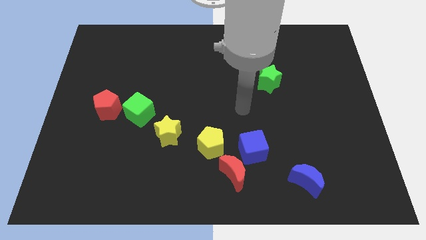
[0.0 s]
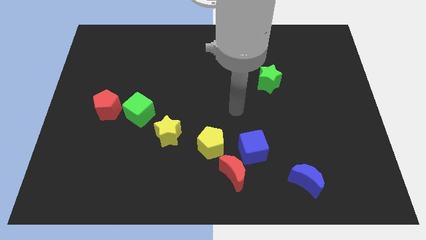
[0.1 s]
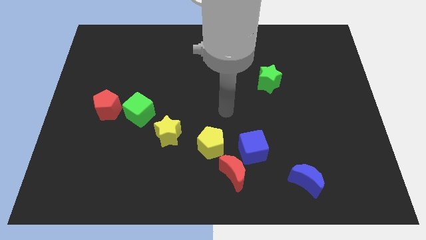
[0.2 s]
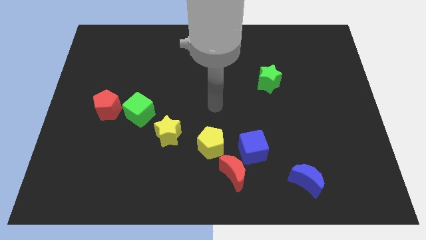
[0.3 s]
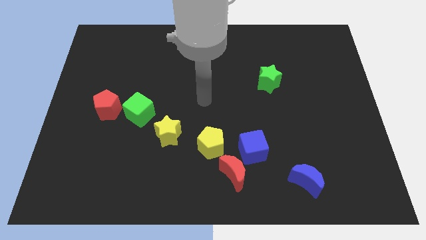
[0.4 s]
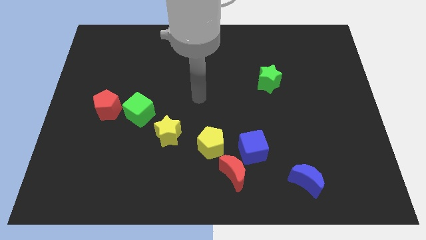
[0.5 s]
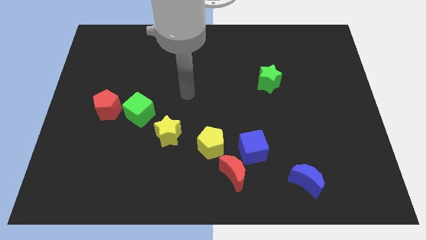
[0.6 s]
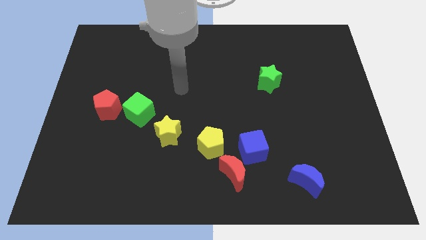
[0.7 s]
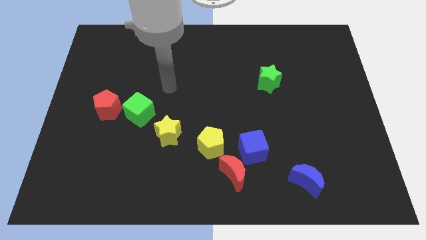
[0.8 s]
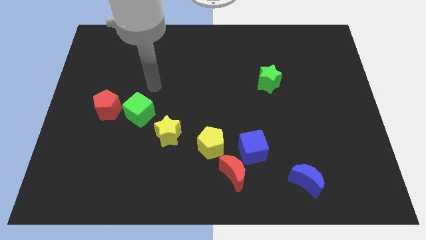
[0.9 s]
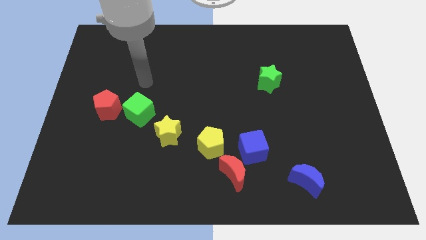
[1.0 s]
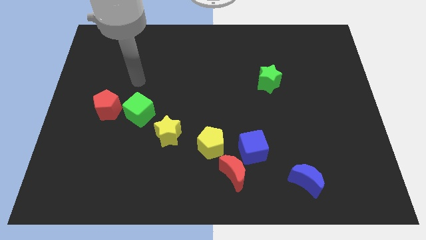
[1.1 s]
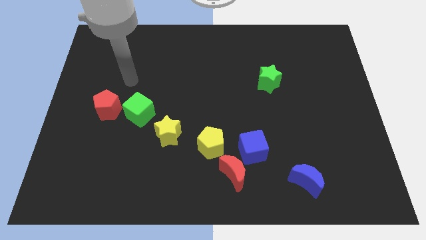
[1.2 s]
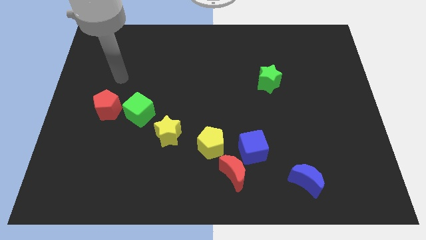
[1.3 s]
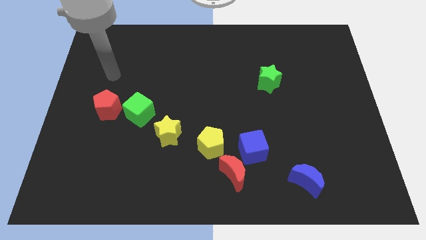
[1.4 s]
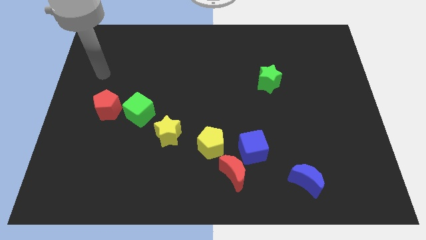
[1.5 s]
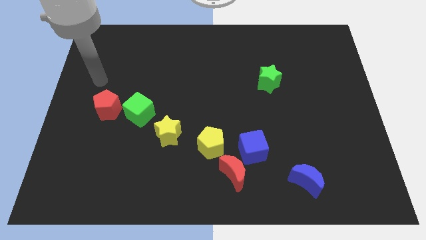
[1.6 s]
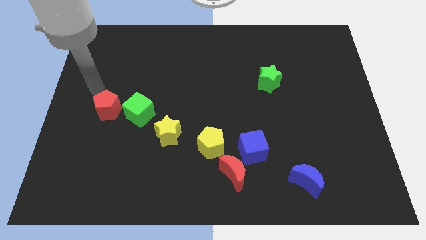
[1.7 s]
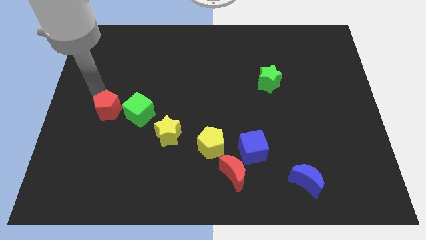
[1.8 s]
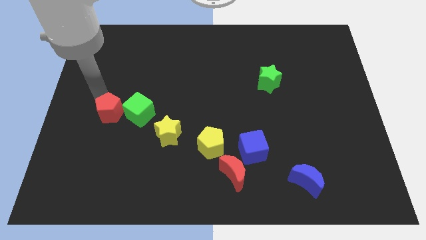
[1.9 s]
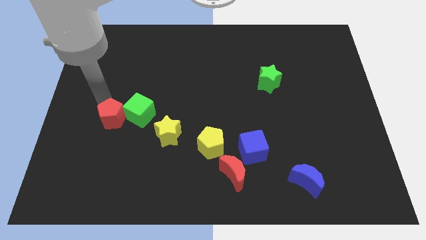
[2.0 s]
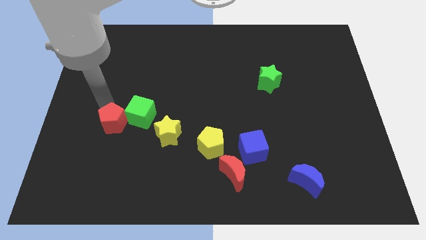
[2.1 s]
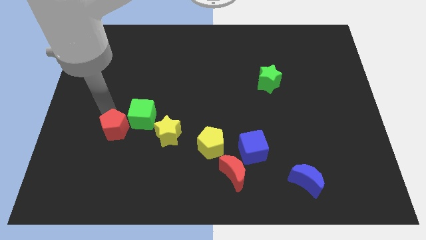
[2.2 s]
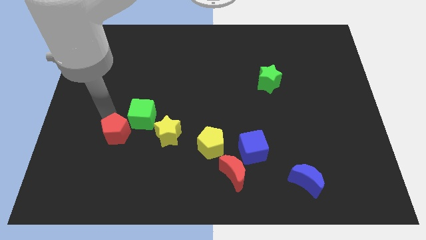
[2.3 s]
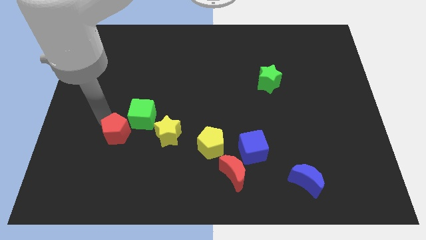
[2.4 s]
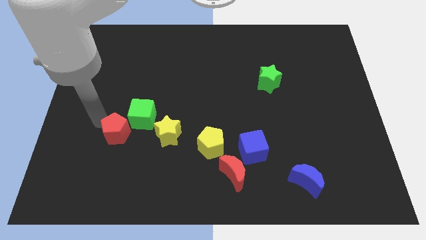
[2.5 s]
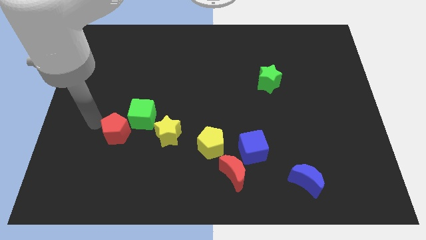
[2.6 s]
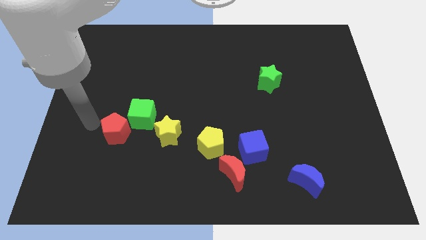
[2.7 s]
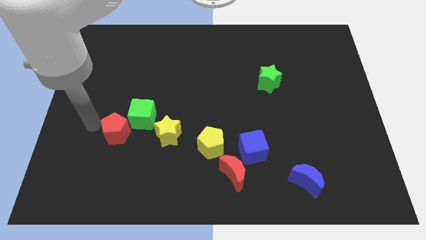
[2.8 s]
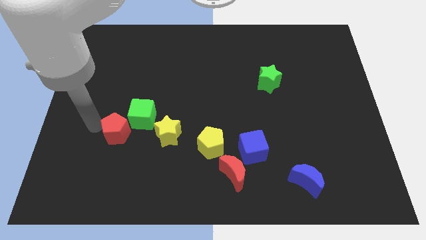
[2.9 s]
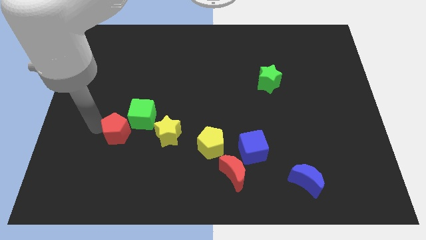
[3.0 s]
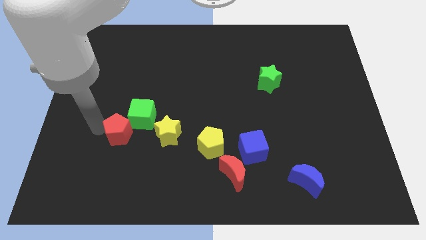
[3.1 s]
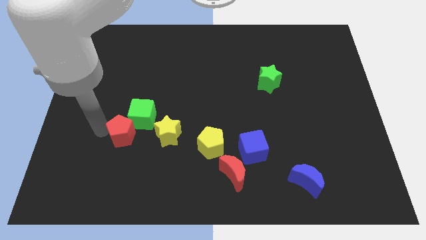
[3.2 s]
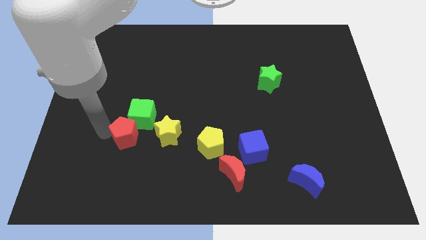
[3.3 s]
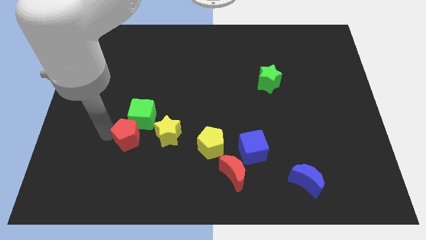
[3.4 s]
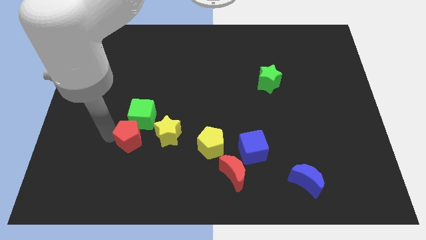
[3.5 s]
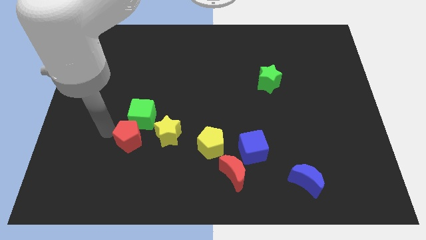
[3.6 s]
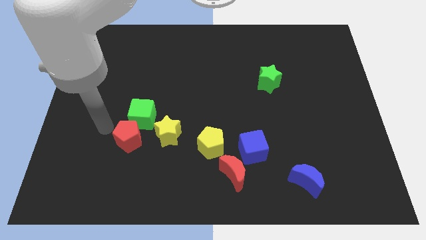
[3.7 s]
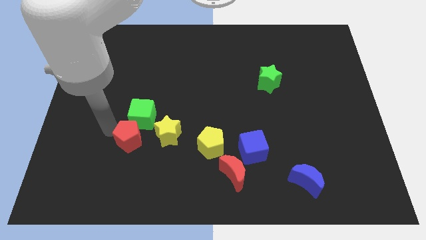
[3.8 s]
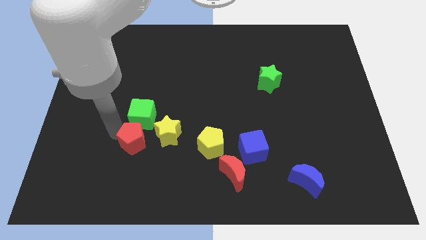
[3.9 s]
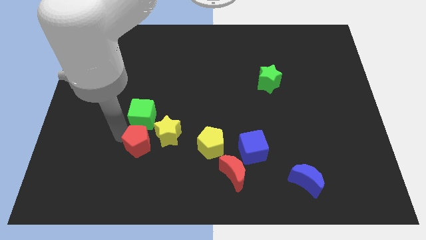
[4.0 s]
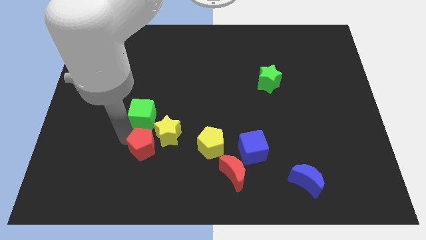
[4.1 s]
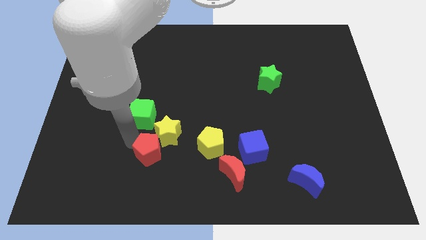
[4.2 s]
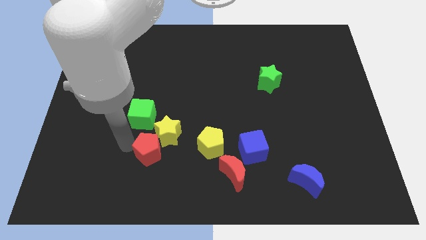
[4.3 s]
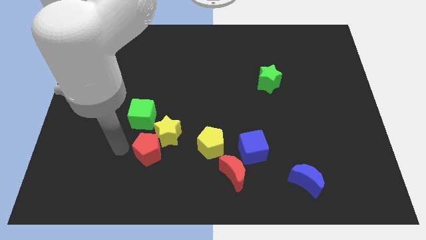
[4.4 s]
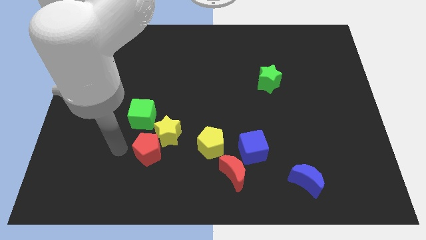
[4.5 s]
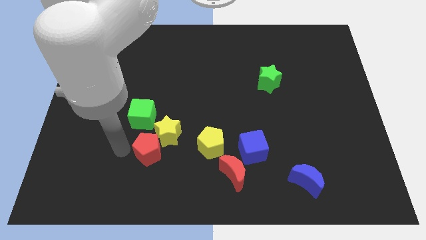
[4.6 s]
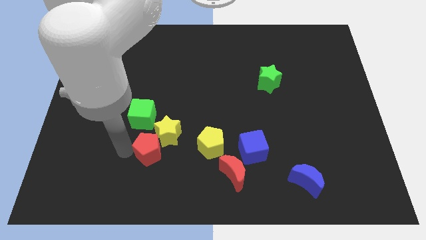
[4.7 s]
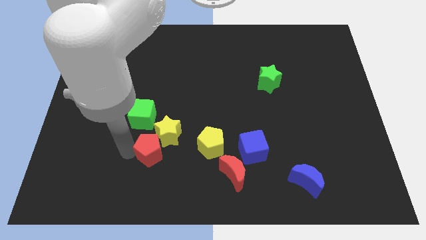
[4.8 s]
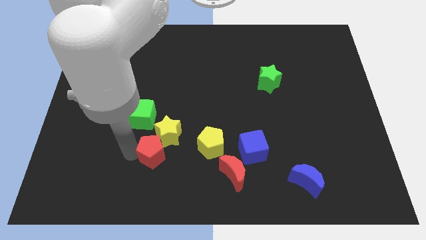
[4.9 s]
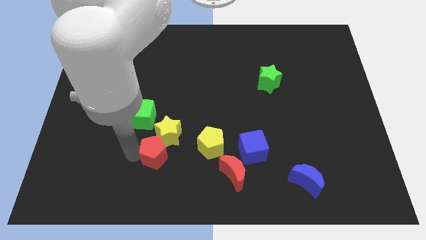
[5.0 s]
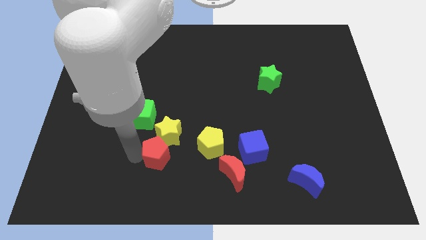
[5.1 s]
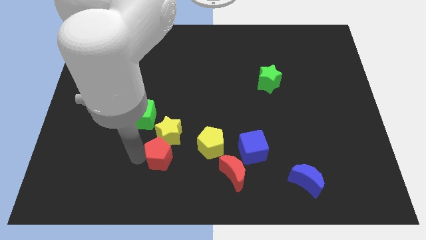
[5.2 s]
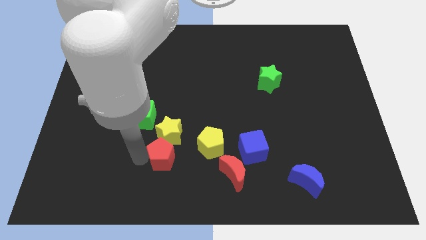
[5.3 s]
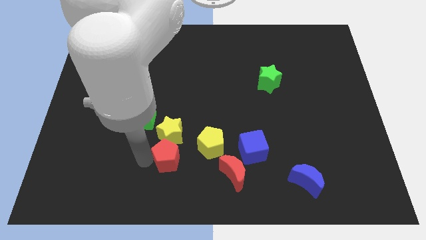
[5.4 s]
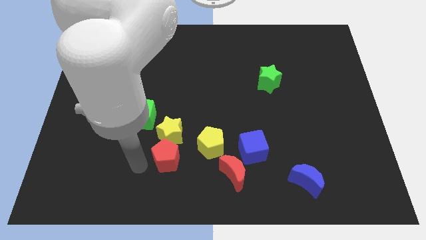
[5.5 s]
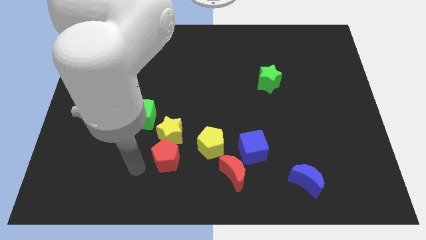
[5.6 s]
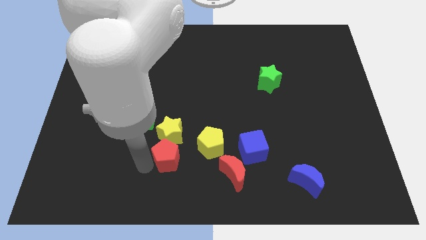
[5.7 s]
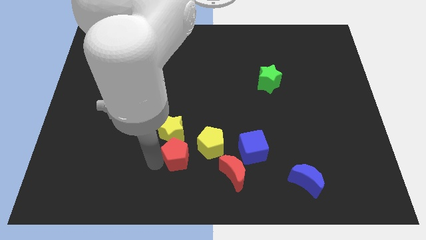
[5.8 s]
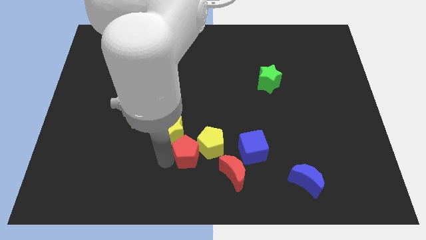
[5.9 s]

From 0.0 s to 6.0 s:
slide the red pentagon towards the yellow pentagon

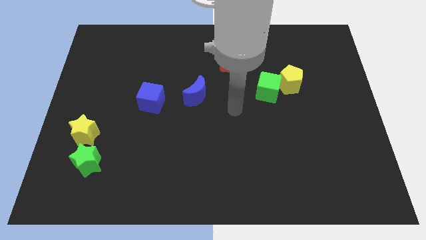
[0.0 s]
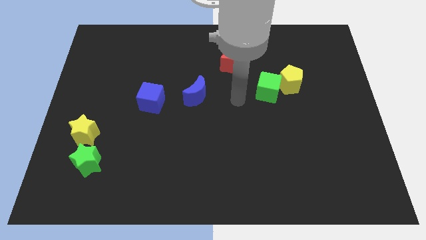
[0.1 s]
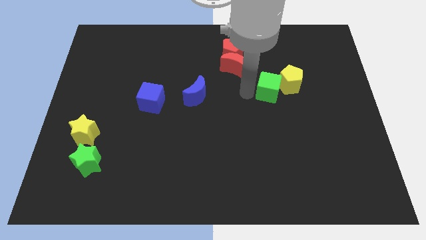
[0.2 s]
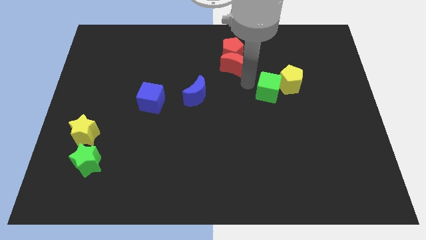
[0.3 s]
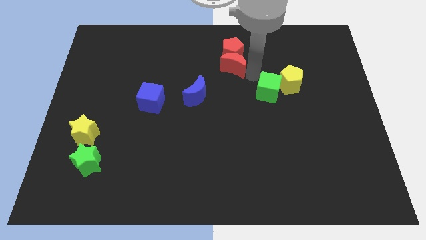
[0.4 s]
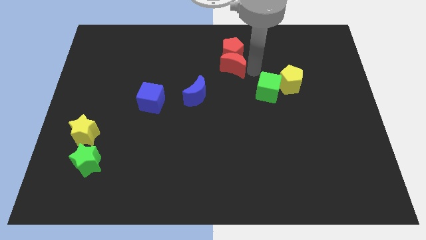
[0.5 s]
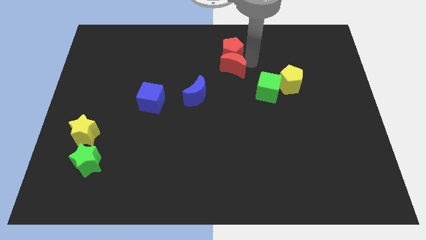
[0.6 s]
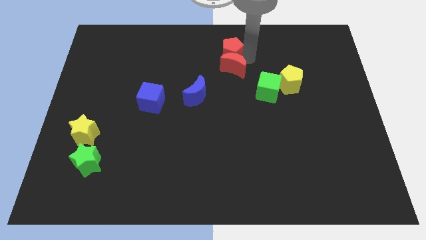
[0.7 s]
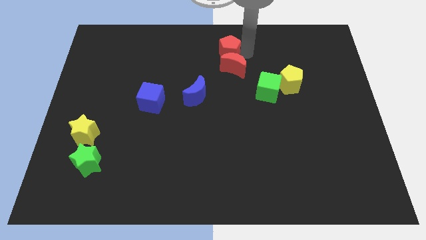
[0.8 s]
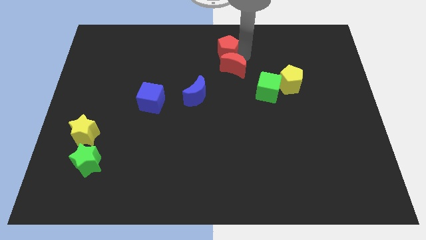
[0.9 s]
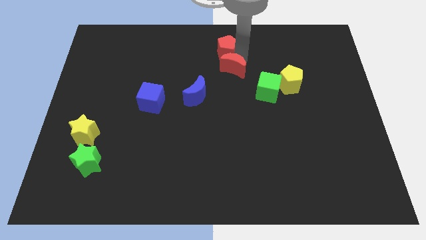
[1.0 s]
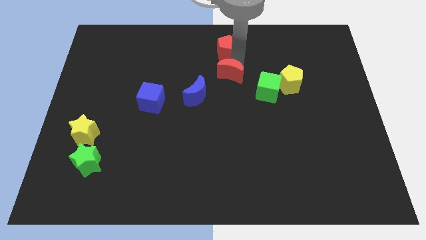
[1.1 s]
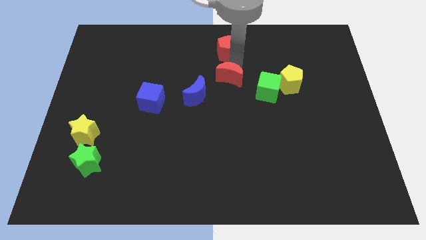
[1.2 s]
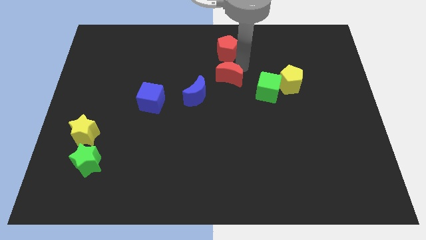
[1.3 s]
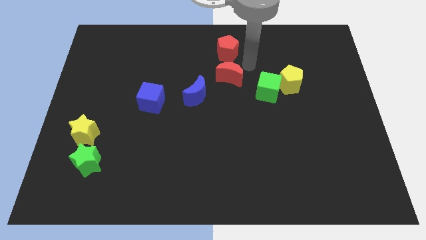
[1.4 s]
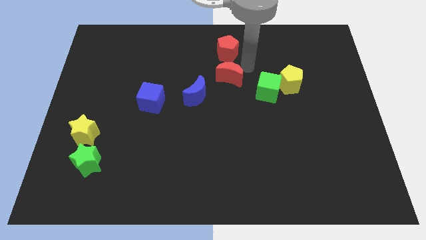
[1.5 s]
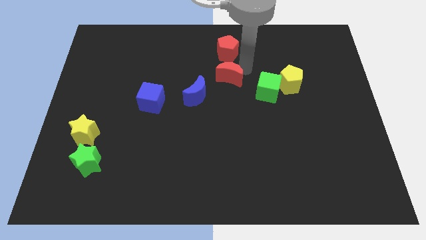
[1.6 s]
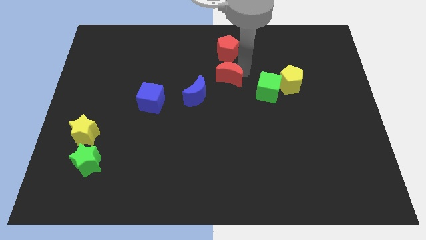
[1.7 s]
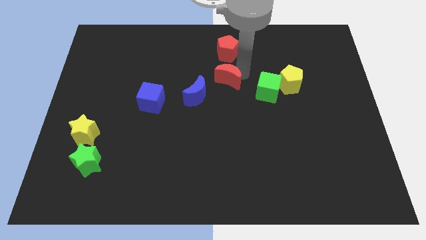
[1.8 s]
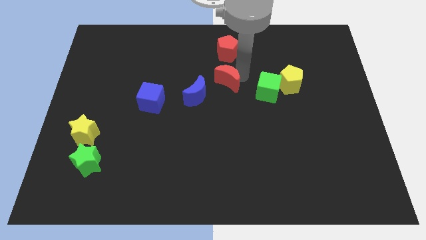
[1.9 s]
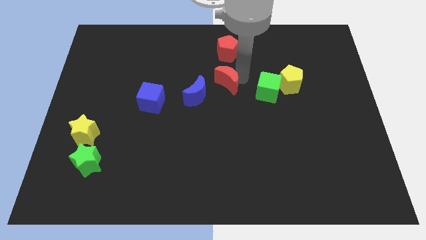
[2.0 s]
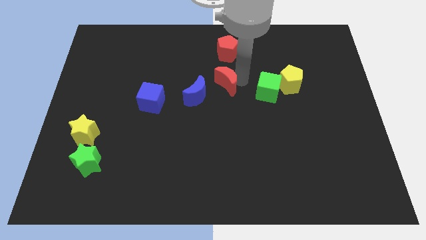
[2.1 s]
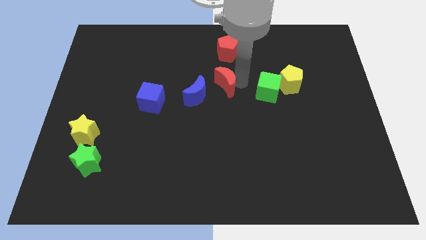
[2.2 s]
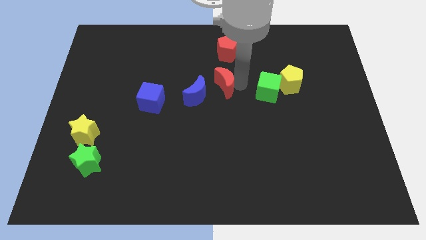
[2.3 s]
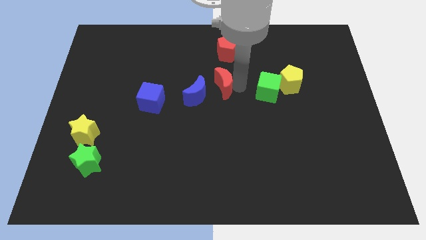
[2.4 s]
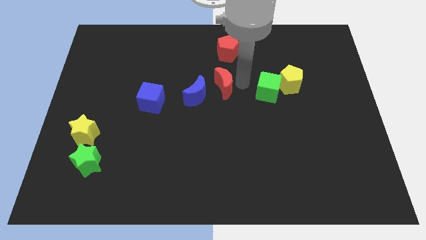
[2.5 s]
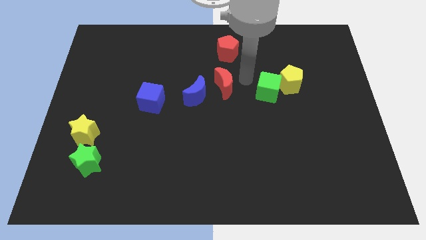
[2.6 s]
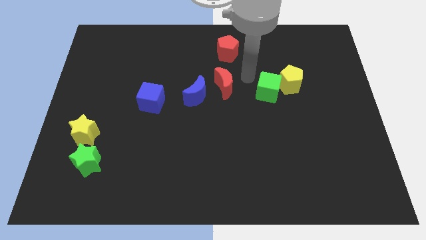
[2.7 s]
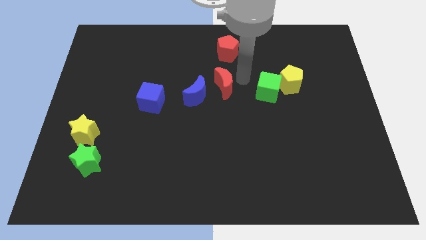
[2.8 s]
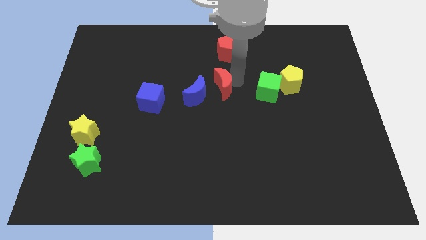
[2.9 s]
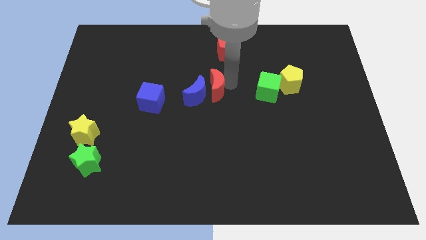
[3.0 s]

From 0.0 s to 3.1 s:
slide the red moon to the blue moon
